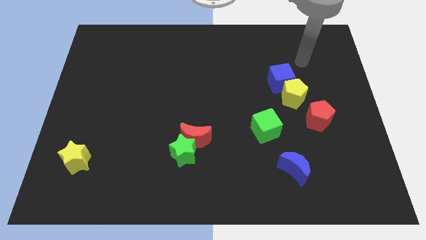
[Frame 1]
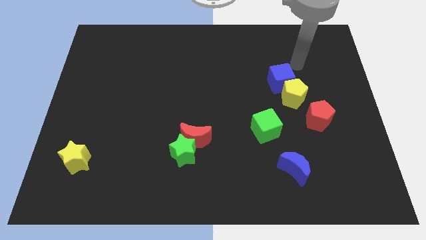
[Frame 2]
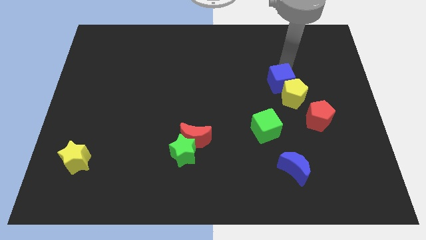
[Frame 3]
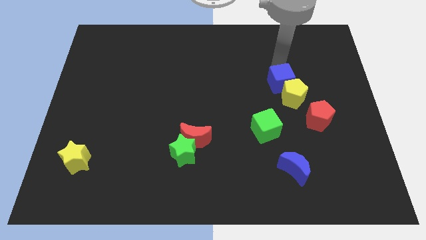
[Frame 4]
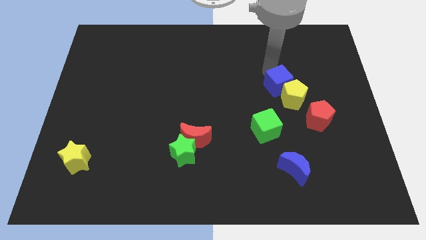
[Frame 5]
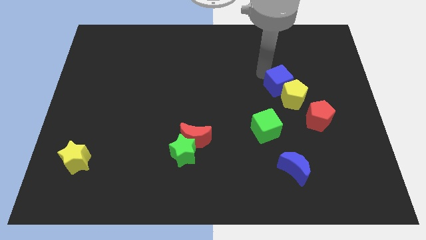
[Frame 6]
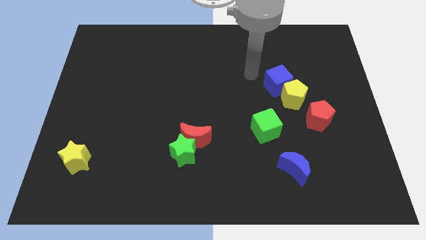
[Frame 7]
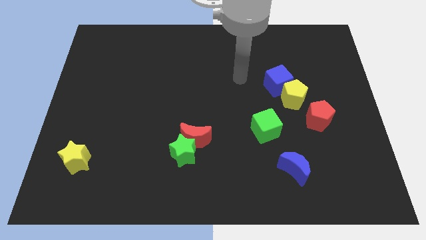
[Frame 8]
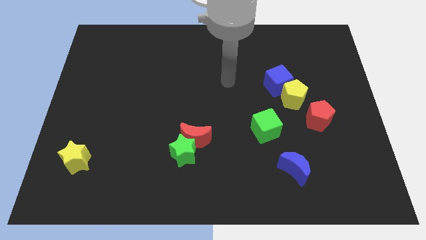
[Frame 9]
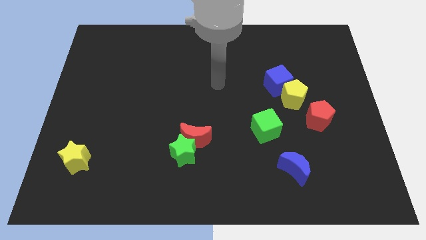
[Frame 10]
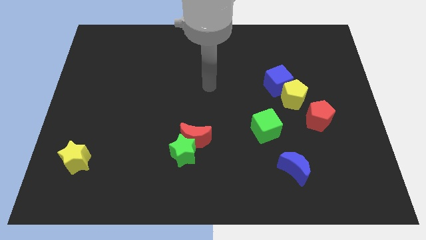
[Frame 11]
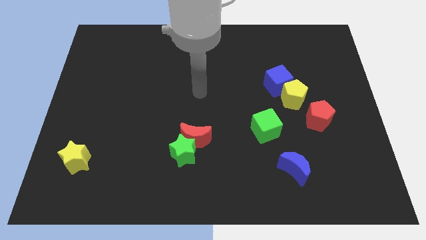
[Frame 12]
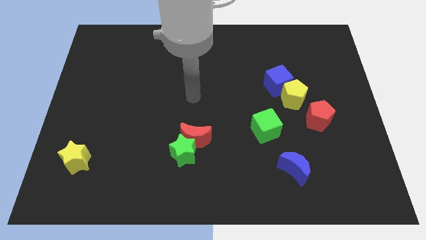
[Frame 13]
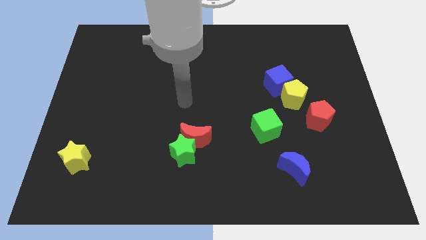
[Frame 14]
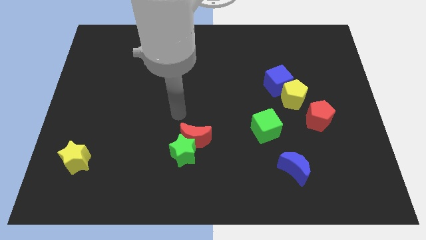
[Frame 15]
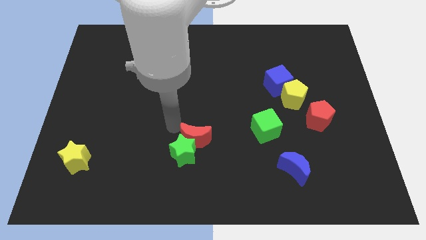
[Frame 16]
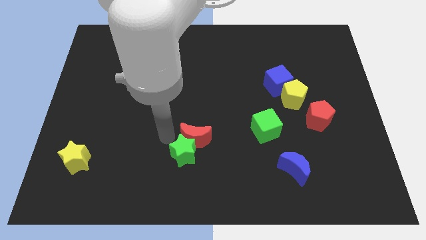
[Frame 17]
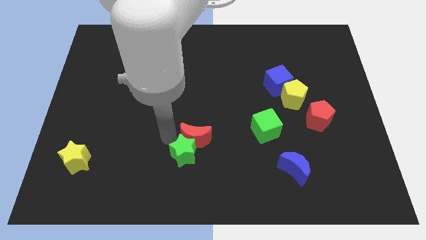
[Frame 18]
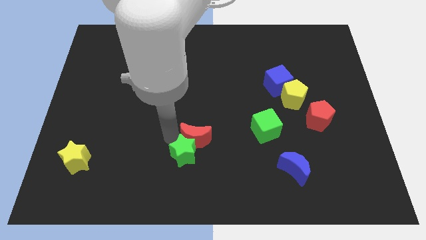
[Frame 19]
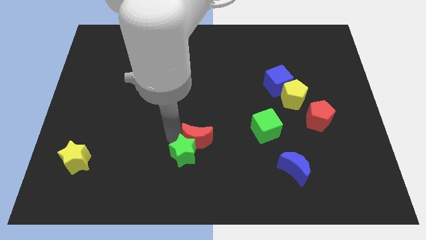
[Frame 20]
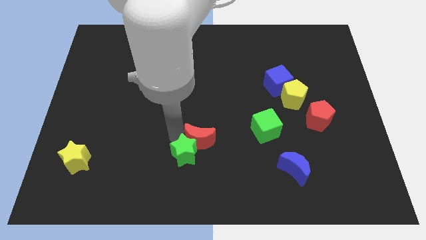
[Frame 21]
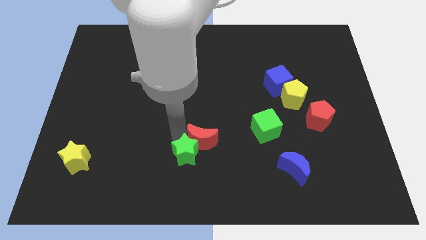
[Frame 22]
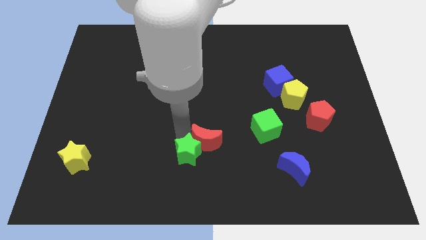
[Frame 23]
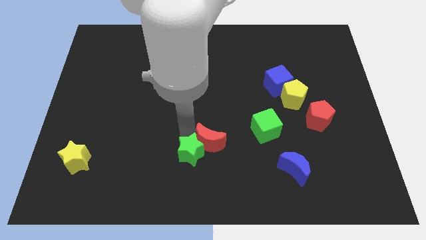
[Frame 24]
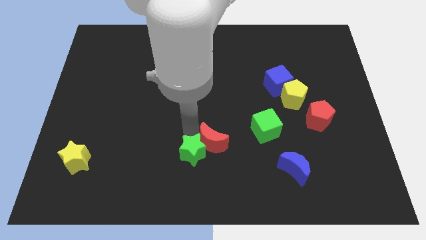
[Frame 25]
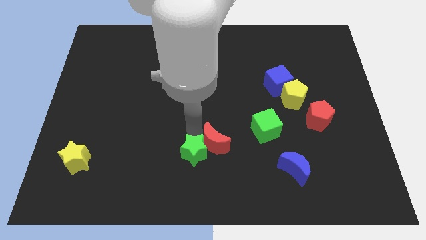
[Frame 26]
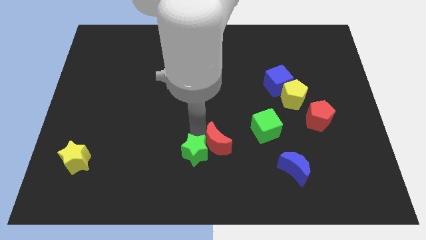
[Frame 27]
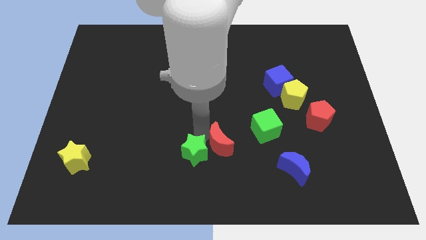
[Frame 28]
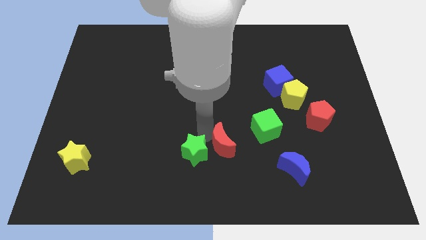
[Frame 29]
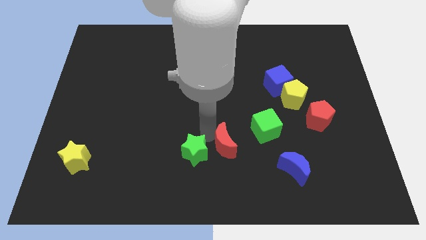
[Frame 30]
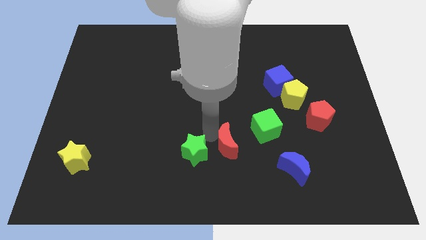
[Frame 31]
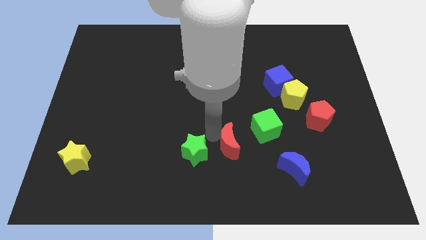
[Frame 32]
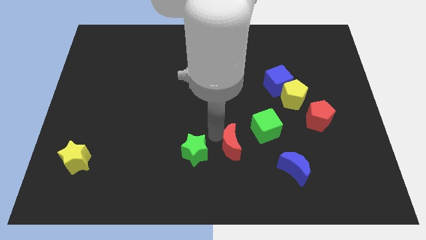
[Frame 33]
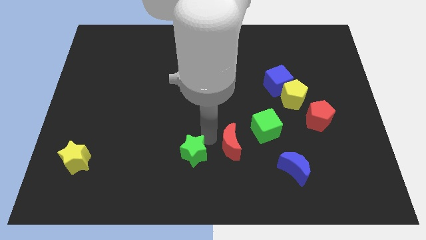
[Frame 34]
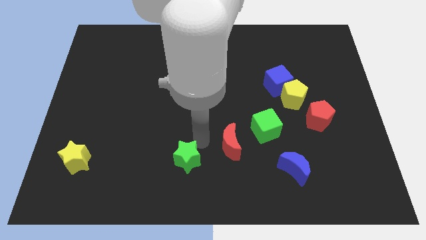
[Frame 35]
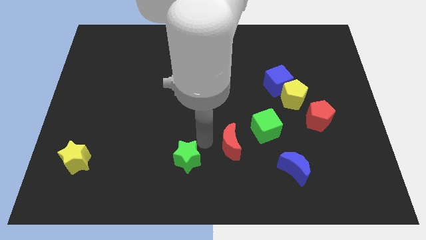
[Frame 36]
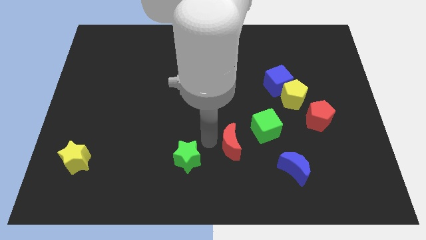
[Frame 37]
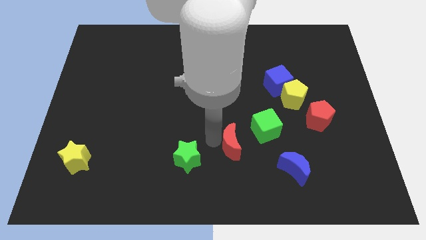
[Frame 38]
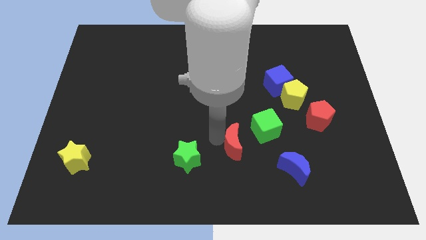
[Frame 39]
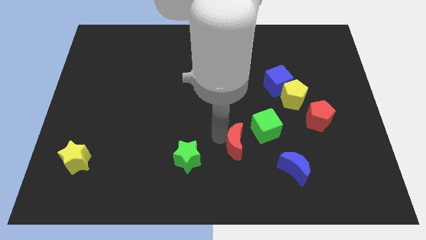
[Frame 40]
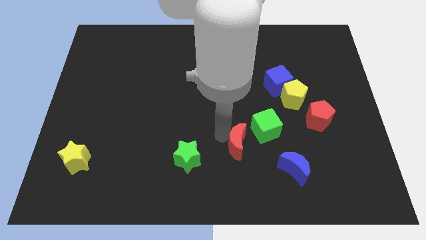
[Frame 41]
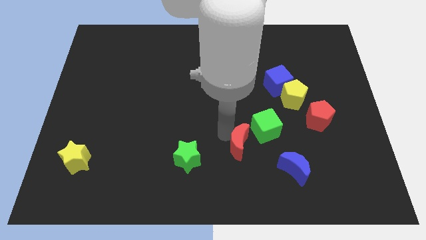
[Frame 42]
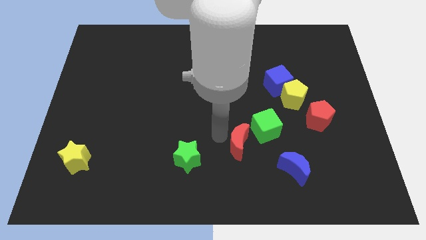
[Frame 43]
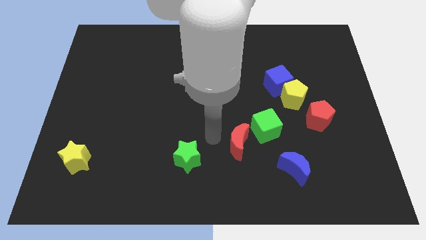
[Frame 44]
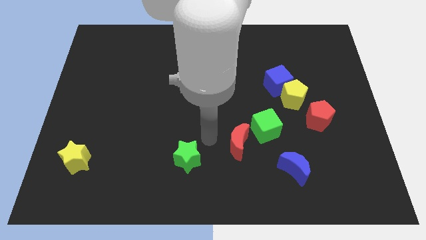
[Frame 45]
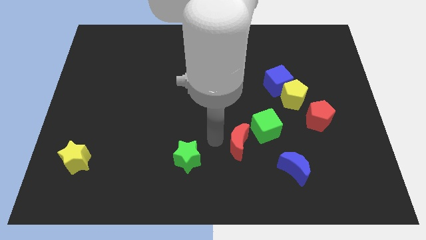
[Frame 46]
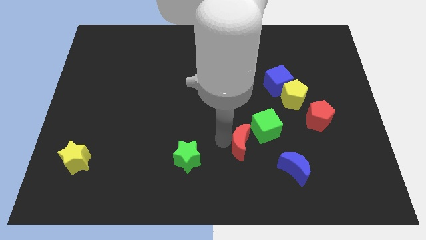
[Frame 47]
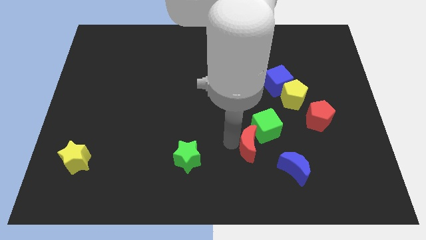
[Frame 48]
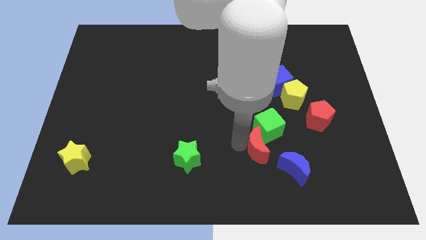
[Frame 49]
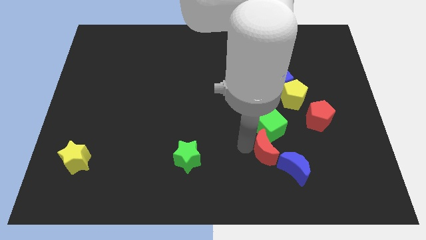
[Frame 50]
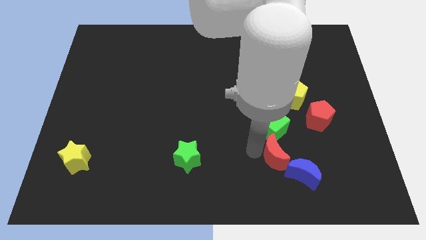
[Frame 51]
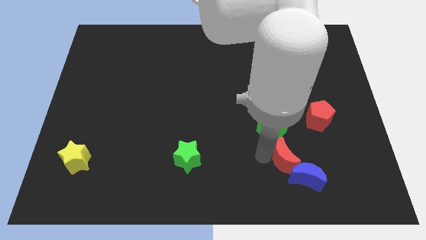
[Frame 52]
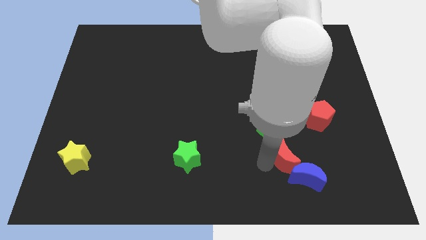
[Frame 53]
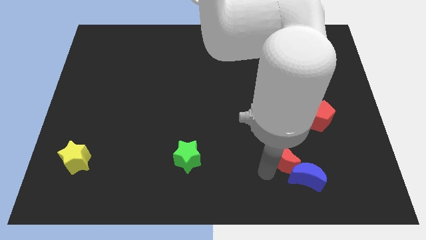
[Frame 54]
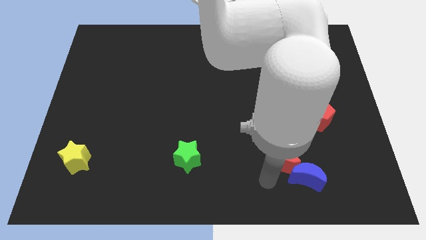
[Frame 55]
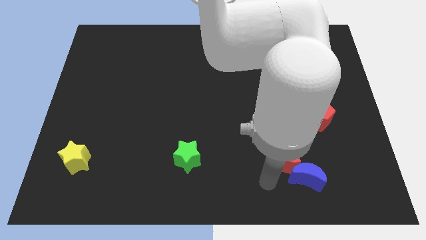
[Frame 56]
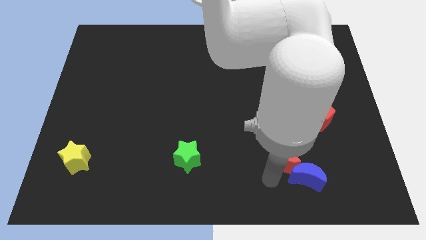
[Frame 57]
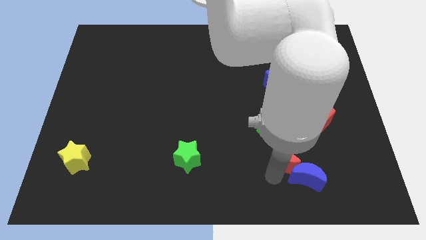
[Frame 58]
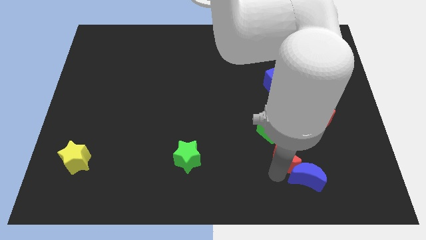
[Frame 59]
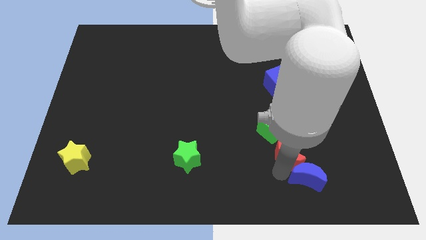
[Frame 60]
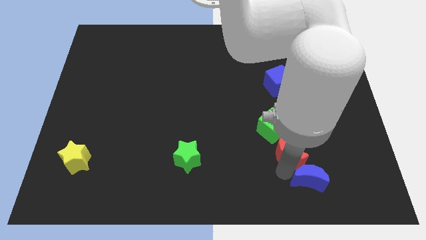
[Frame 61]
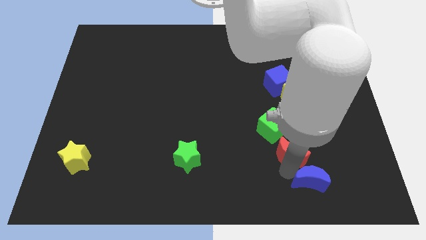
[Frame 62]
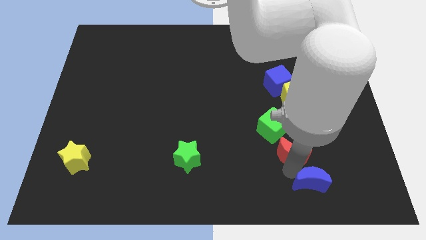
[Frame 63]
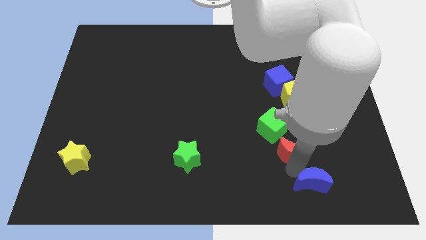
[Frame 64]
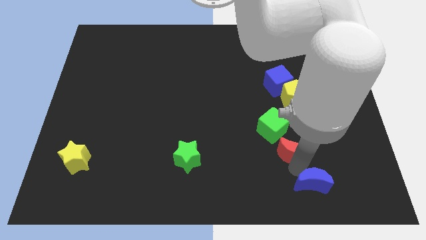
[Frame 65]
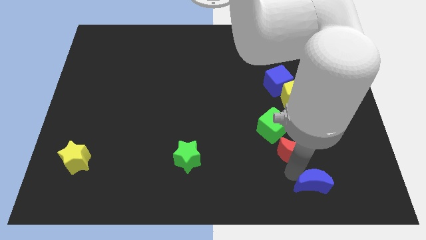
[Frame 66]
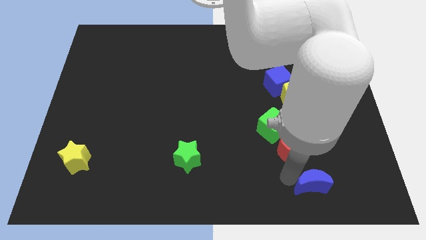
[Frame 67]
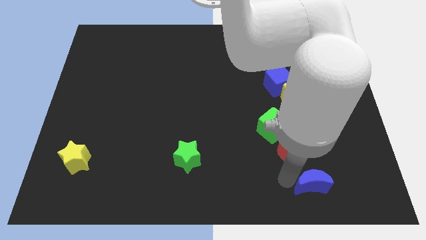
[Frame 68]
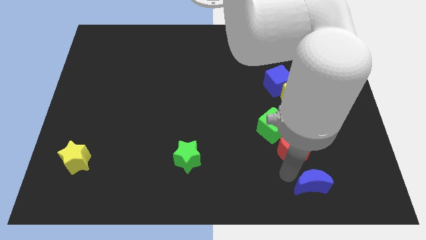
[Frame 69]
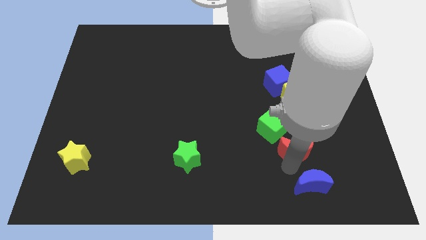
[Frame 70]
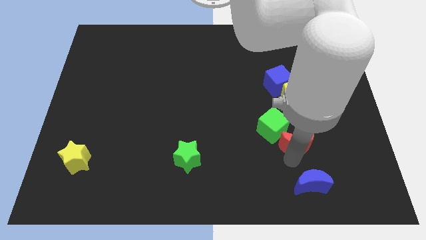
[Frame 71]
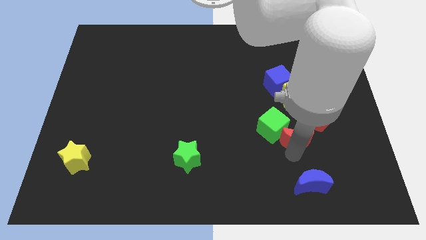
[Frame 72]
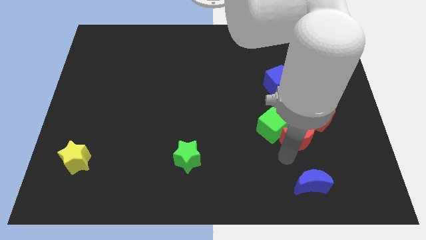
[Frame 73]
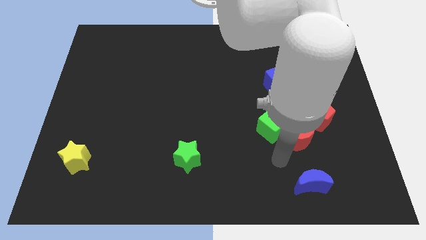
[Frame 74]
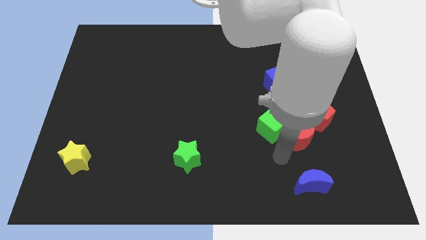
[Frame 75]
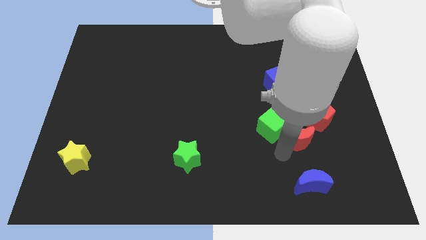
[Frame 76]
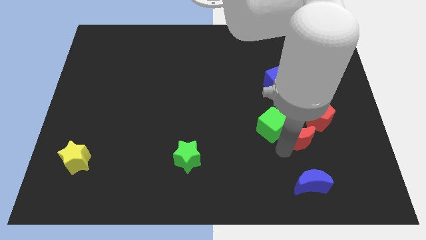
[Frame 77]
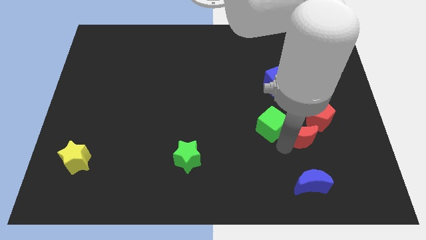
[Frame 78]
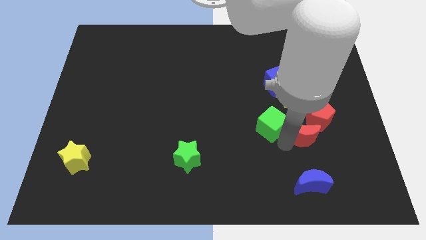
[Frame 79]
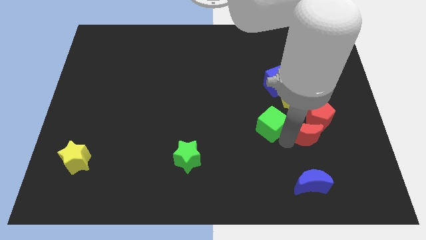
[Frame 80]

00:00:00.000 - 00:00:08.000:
push the red moon close to the red pentagon
